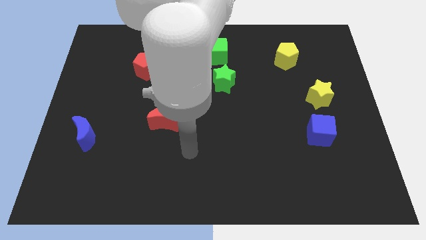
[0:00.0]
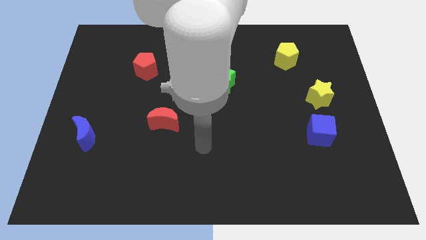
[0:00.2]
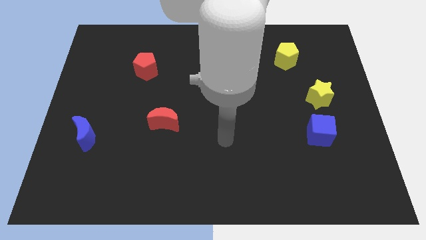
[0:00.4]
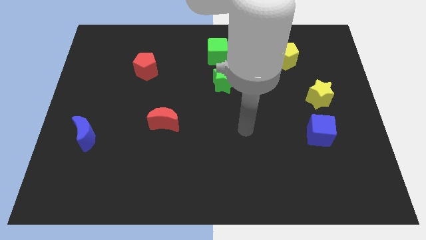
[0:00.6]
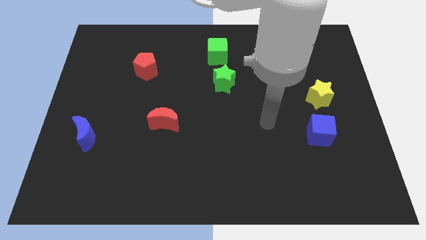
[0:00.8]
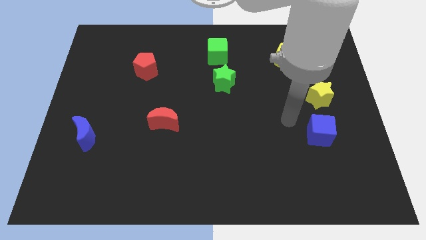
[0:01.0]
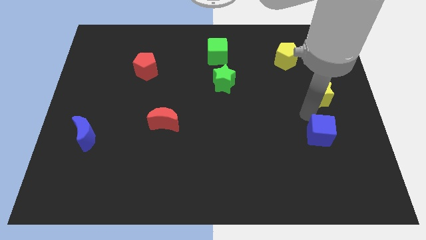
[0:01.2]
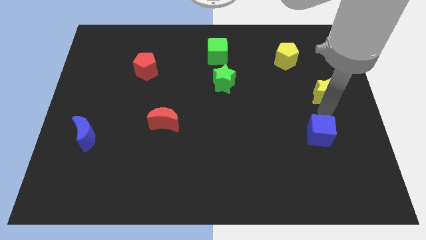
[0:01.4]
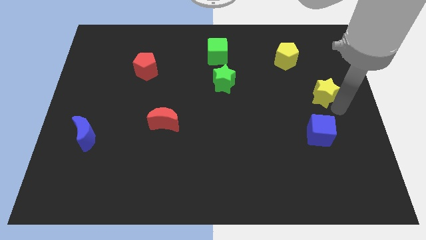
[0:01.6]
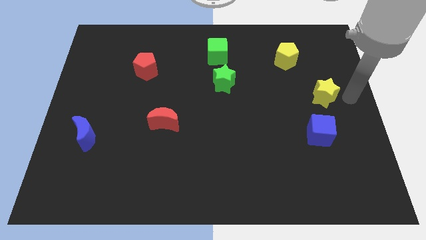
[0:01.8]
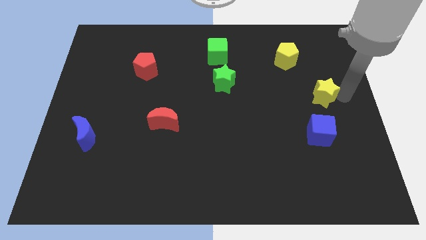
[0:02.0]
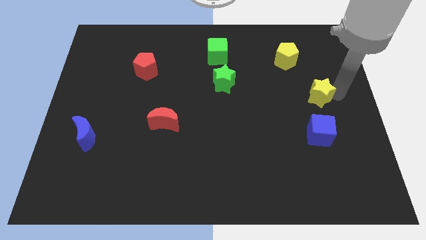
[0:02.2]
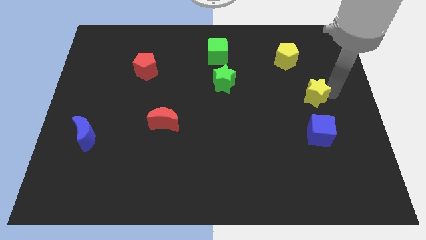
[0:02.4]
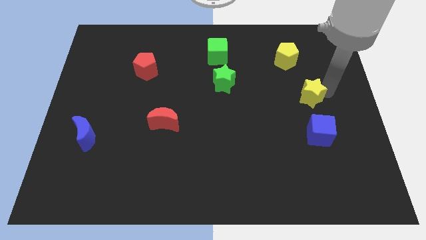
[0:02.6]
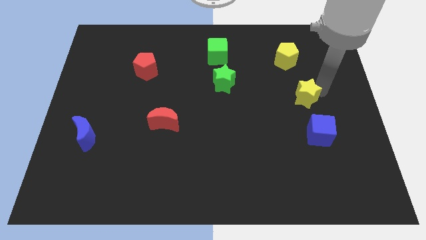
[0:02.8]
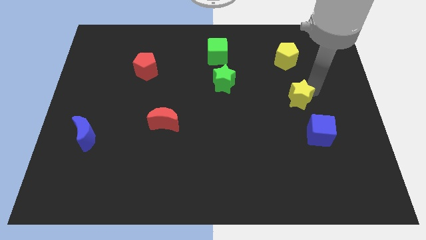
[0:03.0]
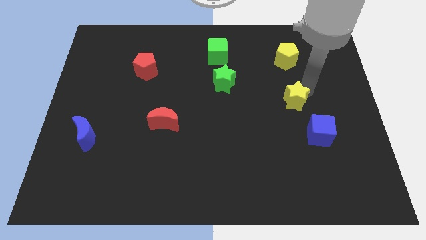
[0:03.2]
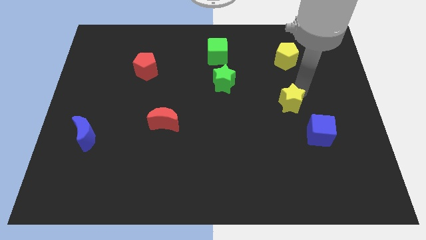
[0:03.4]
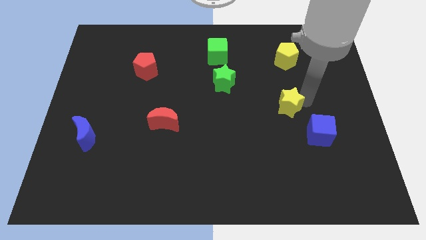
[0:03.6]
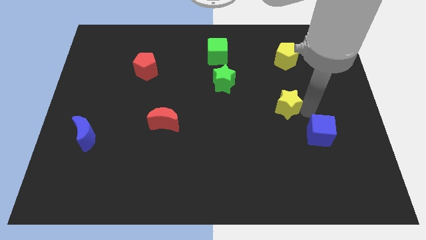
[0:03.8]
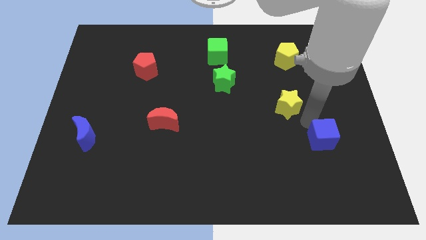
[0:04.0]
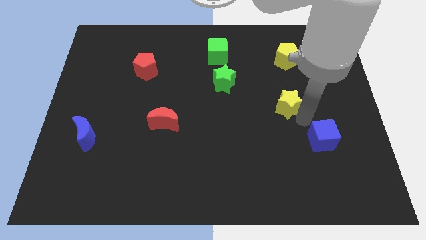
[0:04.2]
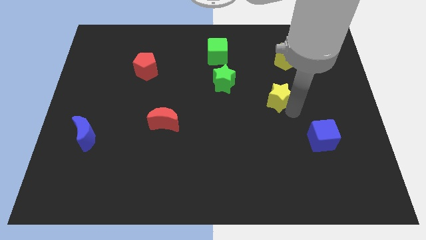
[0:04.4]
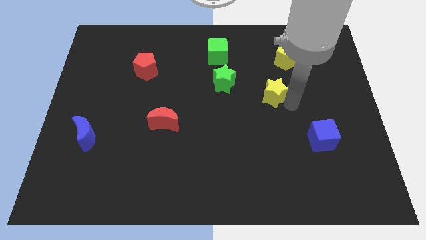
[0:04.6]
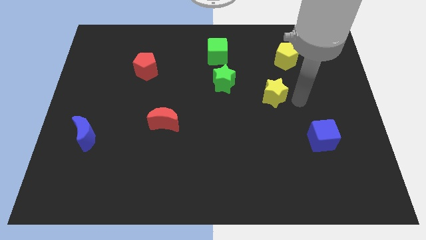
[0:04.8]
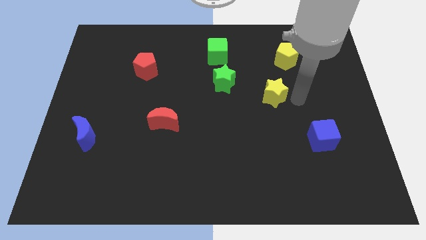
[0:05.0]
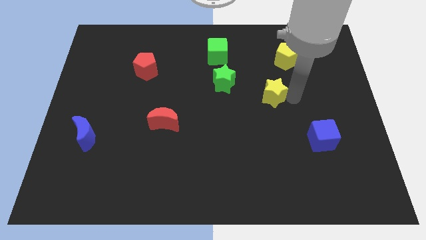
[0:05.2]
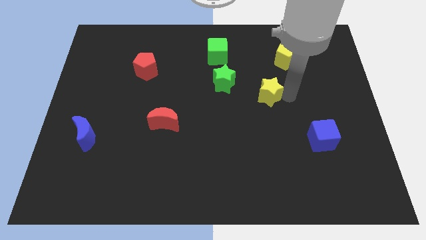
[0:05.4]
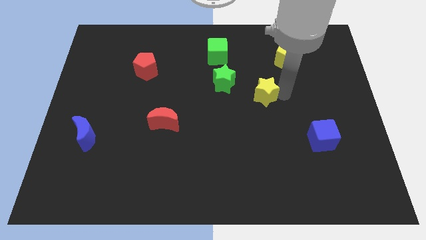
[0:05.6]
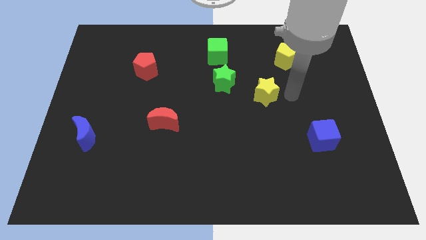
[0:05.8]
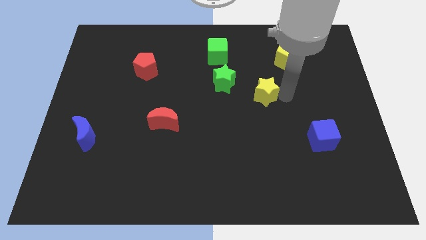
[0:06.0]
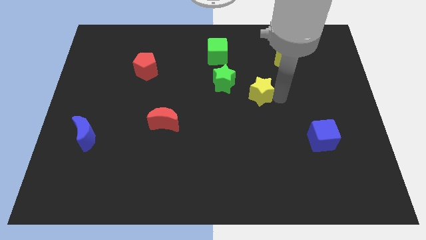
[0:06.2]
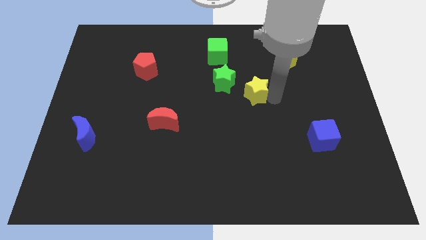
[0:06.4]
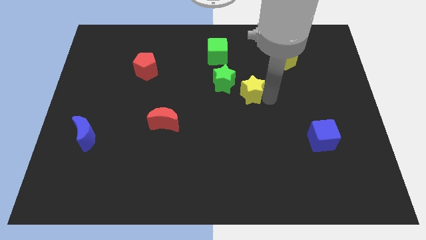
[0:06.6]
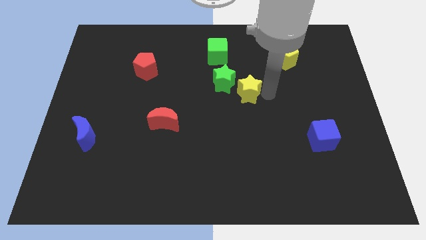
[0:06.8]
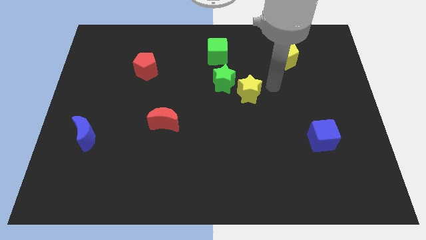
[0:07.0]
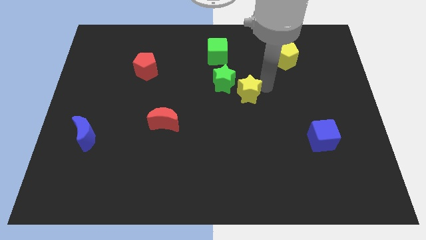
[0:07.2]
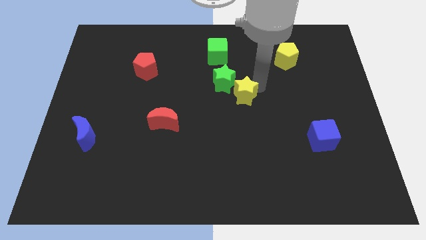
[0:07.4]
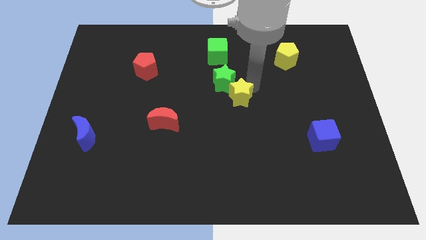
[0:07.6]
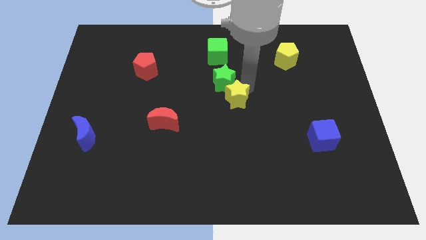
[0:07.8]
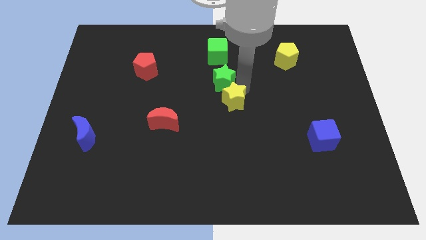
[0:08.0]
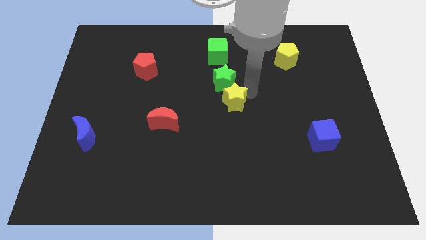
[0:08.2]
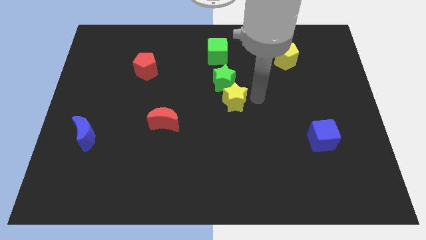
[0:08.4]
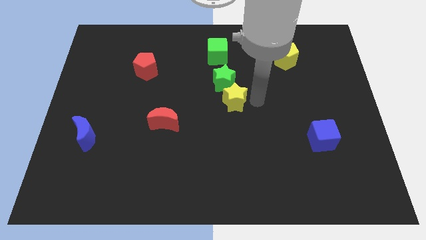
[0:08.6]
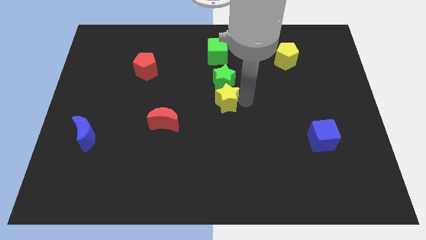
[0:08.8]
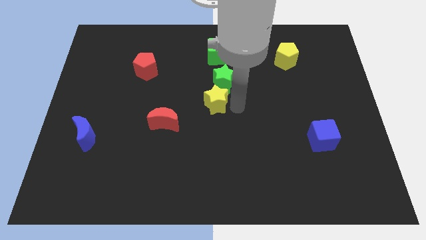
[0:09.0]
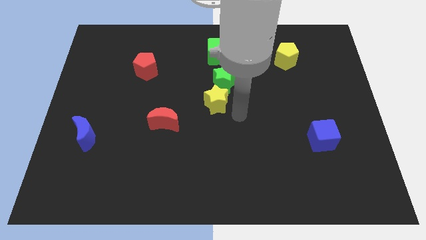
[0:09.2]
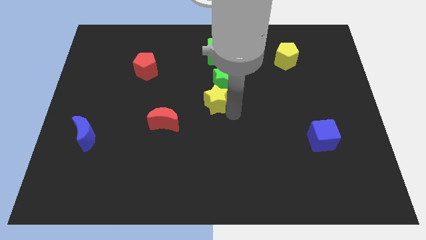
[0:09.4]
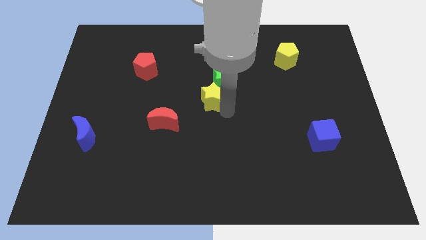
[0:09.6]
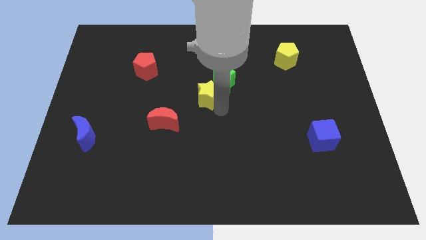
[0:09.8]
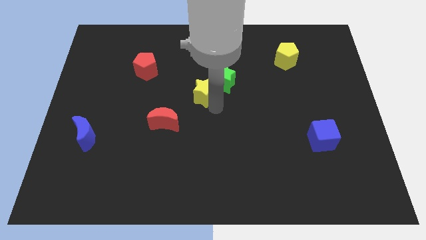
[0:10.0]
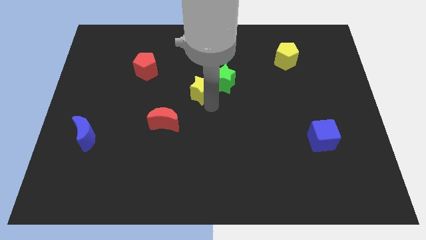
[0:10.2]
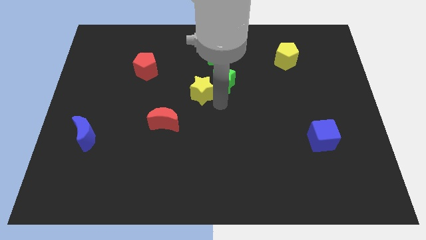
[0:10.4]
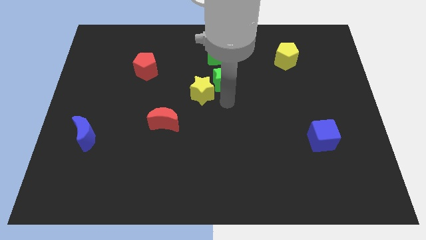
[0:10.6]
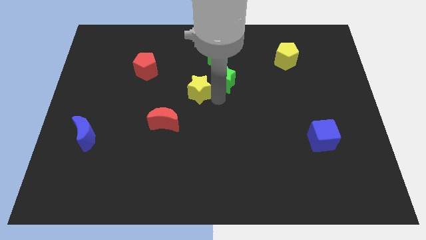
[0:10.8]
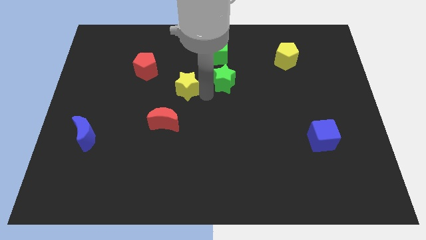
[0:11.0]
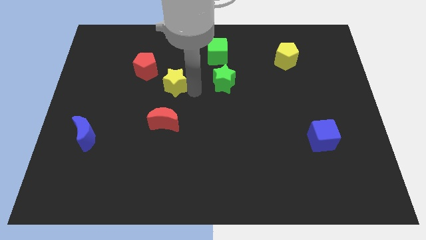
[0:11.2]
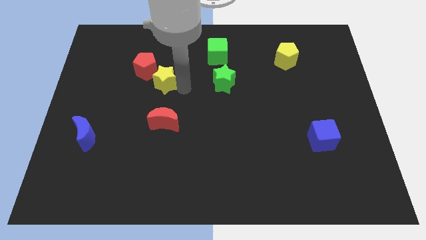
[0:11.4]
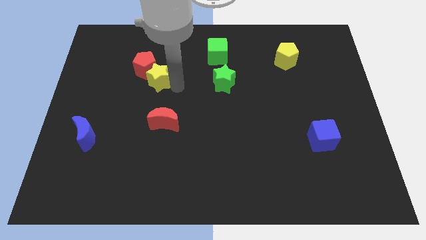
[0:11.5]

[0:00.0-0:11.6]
push the yellow star towards the red pentagon

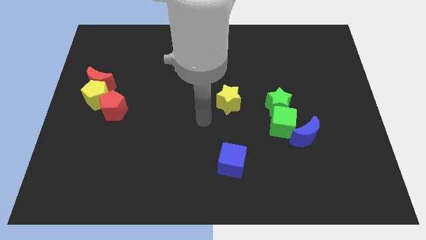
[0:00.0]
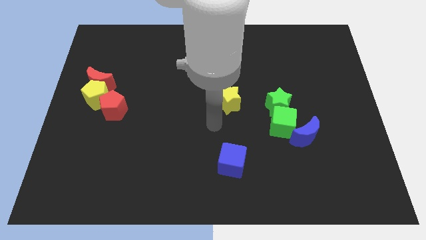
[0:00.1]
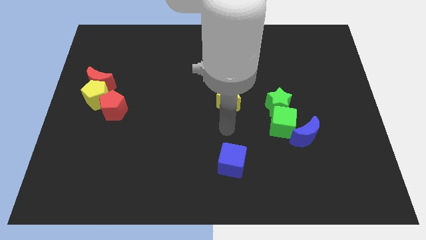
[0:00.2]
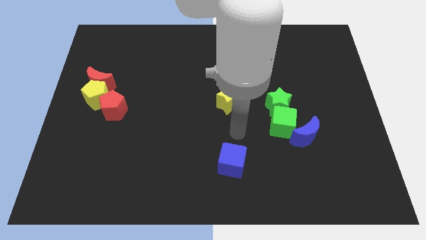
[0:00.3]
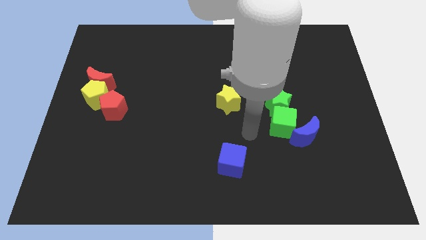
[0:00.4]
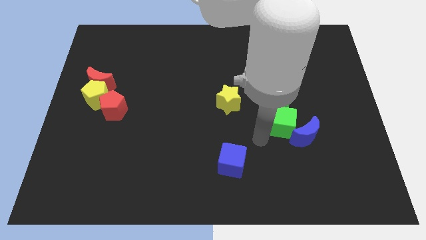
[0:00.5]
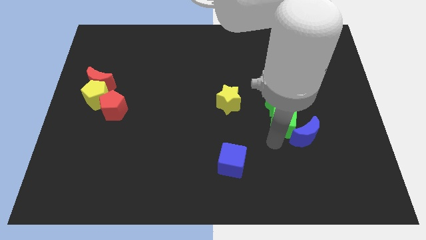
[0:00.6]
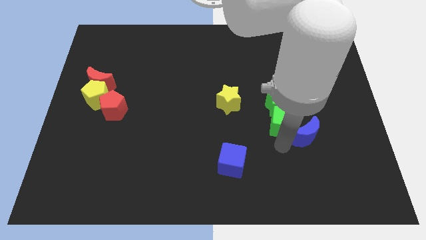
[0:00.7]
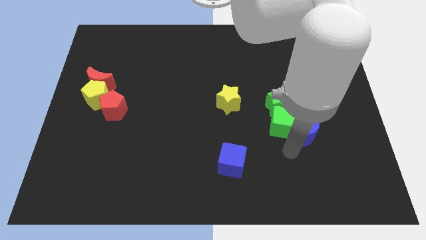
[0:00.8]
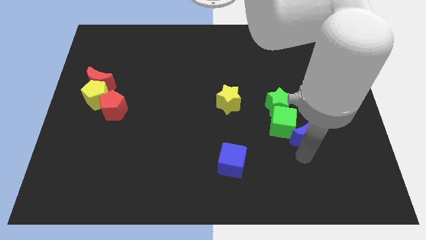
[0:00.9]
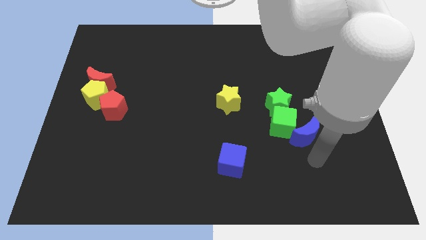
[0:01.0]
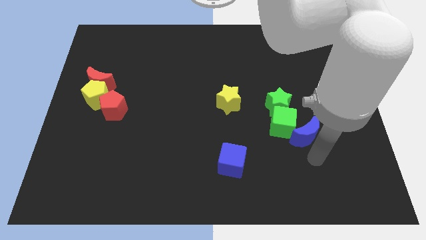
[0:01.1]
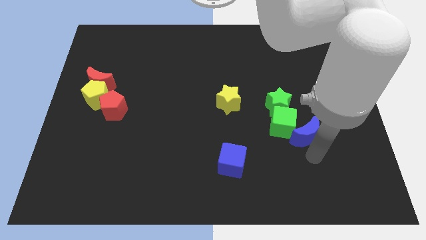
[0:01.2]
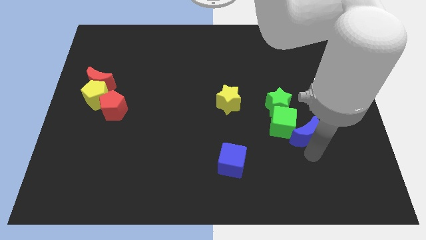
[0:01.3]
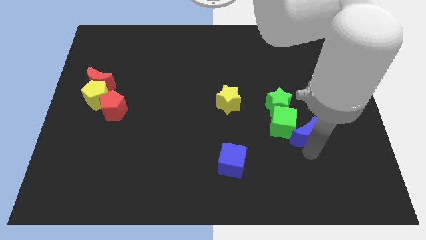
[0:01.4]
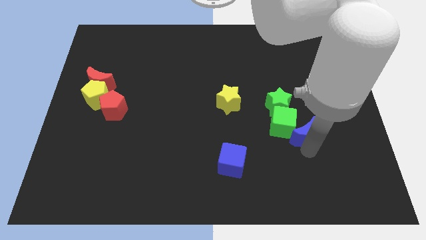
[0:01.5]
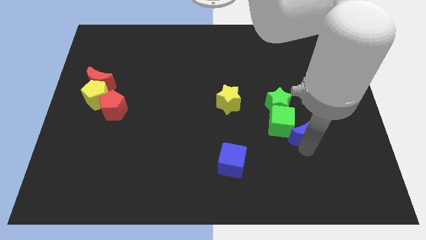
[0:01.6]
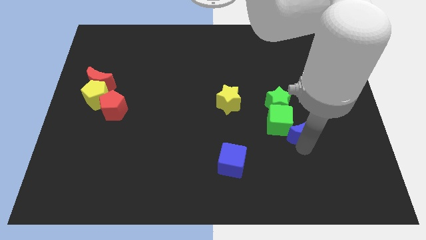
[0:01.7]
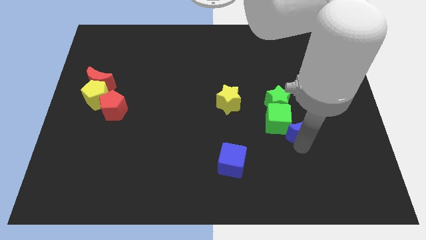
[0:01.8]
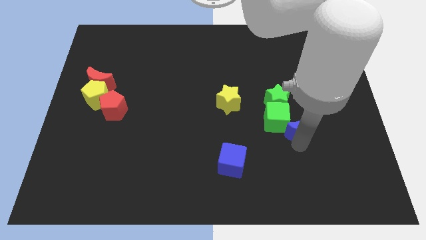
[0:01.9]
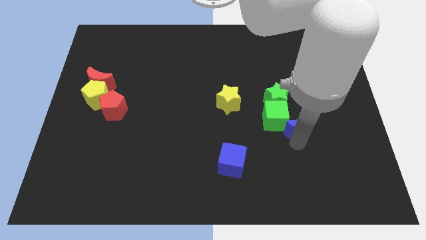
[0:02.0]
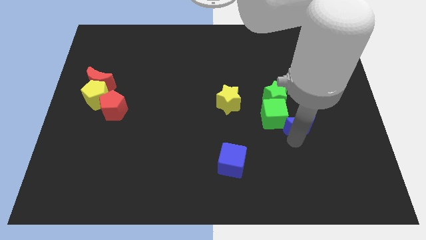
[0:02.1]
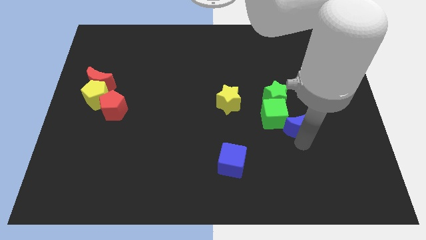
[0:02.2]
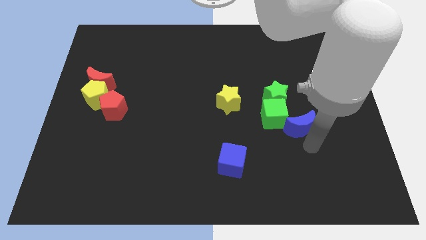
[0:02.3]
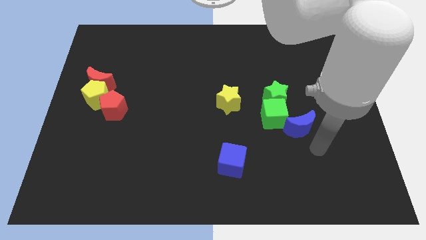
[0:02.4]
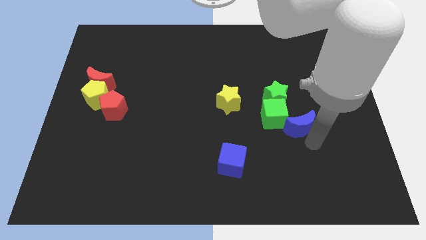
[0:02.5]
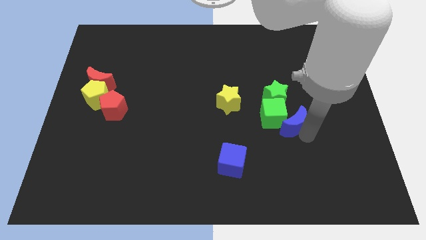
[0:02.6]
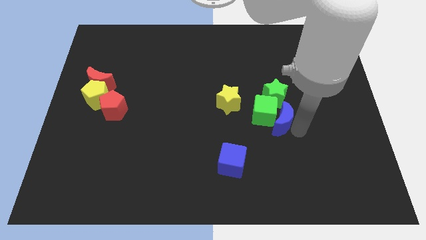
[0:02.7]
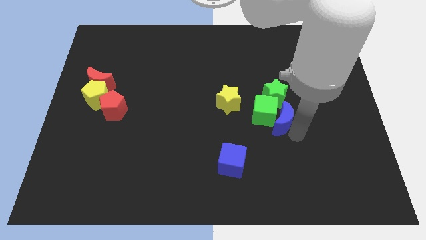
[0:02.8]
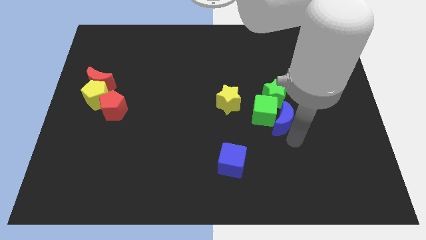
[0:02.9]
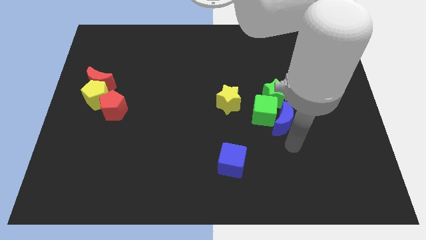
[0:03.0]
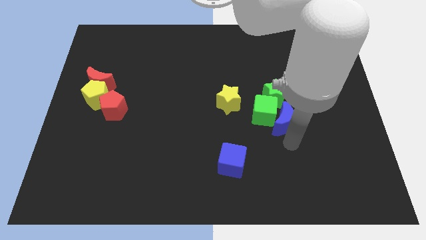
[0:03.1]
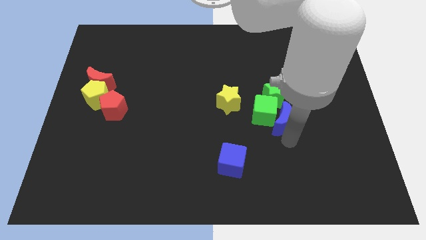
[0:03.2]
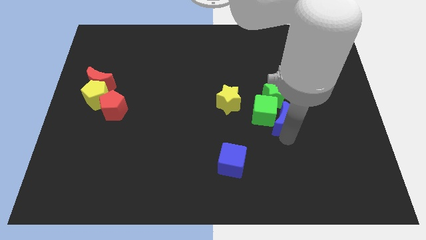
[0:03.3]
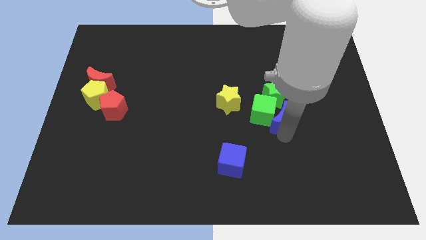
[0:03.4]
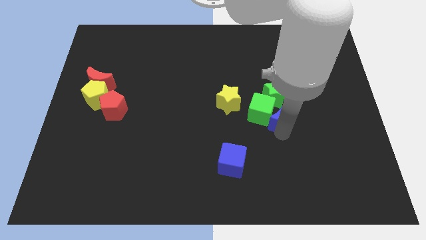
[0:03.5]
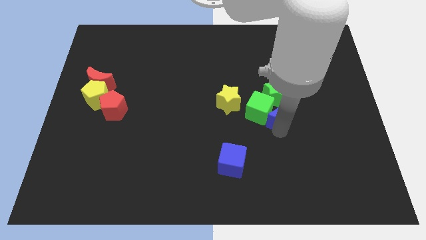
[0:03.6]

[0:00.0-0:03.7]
slide the blue moon close to the green star
